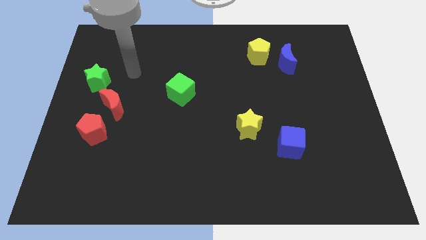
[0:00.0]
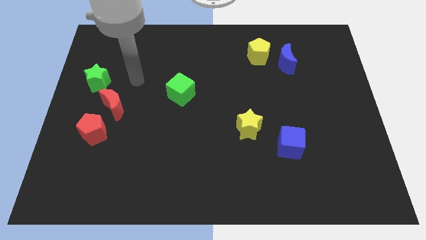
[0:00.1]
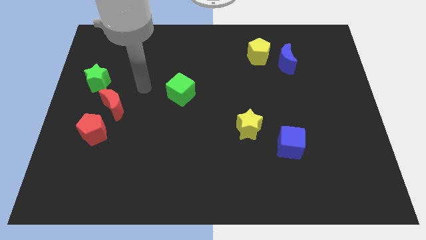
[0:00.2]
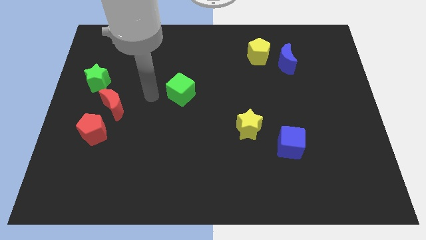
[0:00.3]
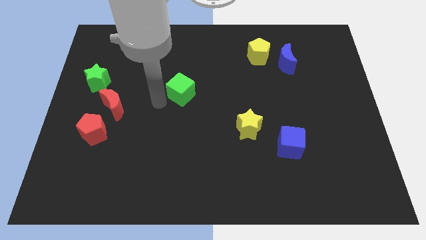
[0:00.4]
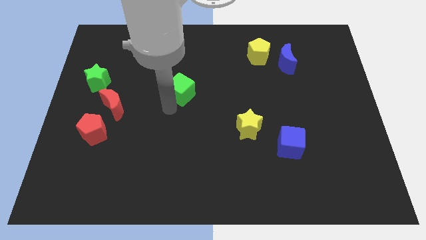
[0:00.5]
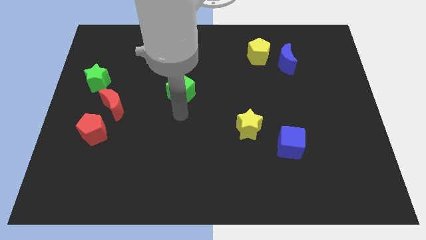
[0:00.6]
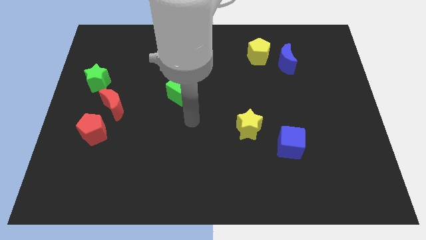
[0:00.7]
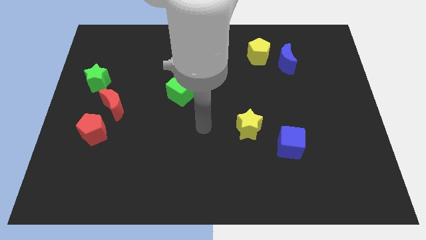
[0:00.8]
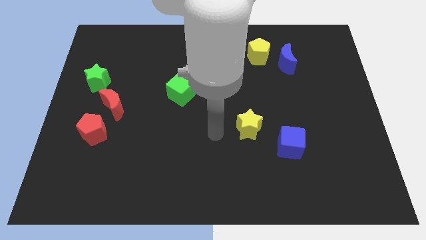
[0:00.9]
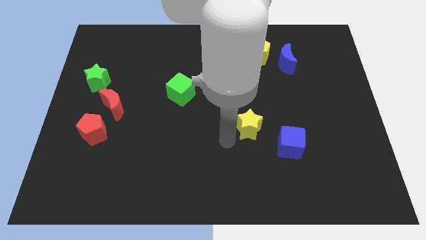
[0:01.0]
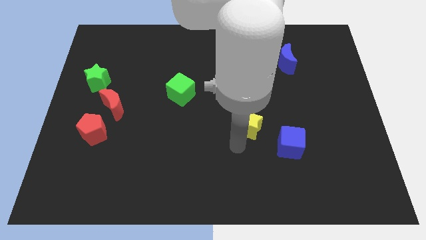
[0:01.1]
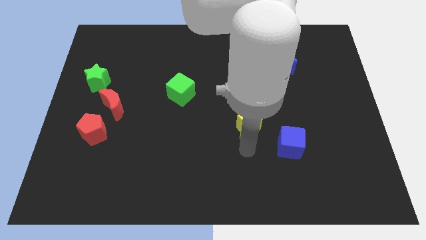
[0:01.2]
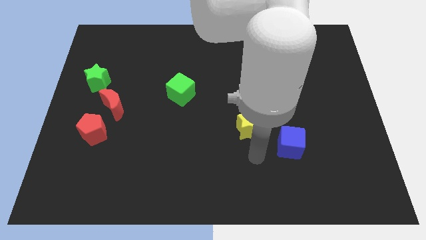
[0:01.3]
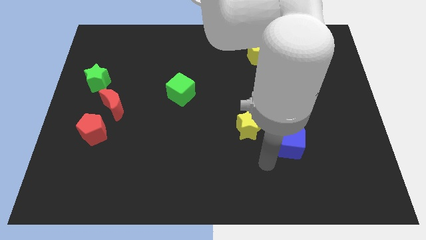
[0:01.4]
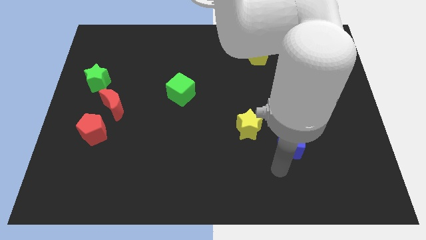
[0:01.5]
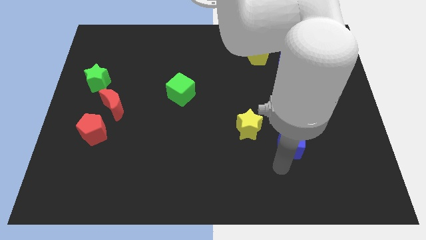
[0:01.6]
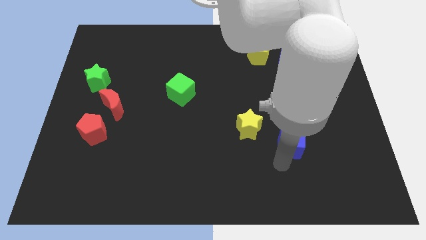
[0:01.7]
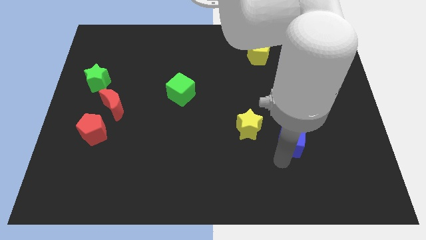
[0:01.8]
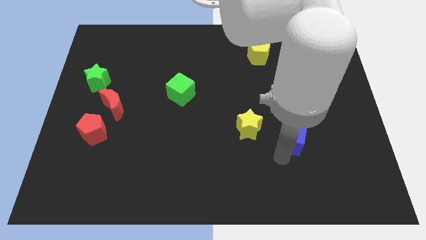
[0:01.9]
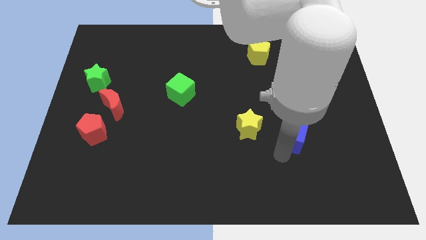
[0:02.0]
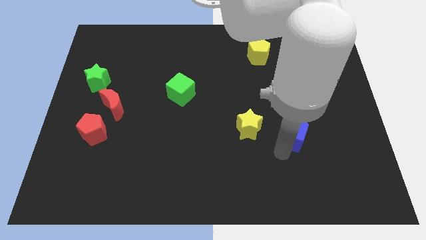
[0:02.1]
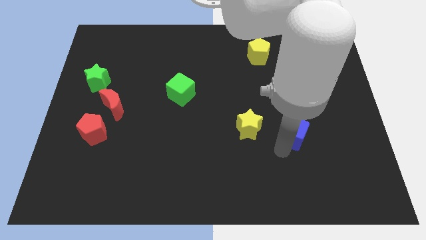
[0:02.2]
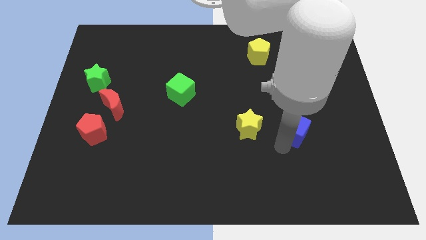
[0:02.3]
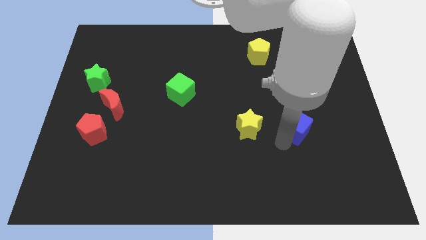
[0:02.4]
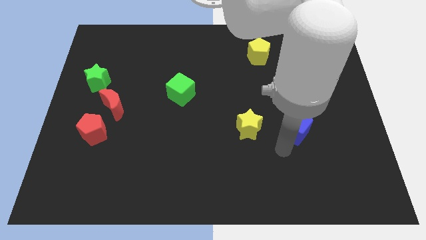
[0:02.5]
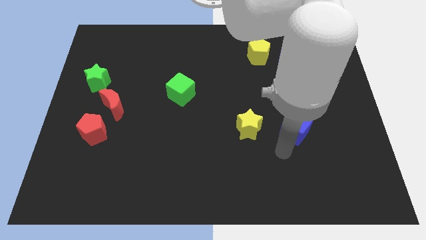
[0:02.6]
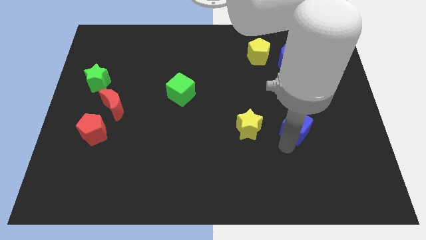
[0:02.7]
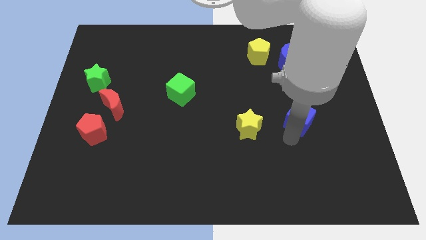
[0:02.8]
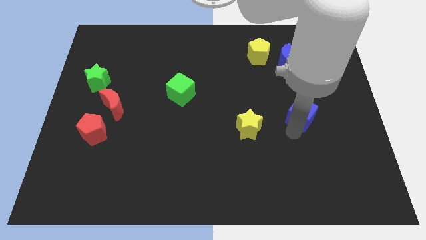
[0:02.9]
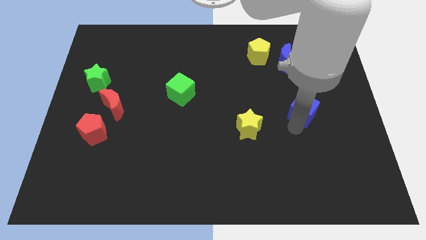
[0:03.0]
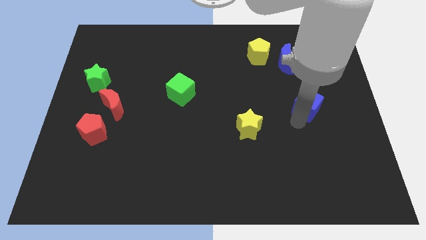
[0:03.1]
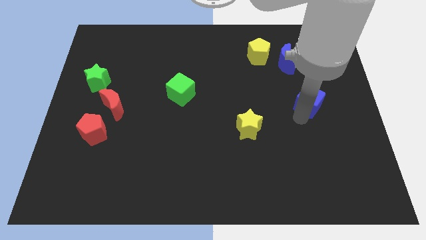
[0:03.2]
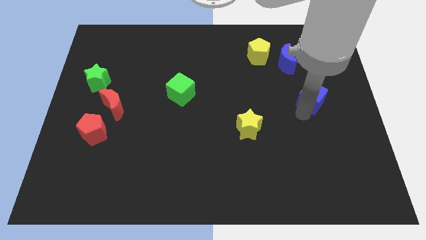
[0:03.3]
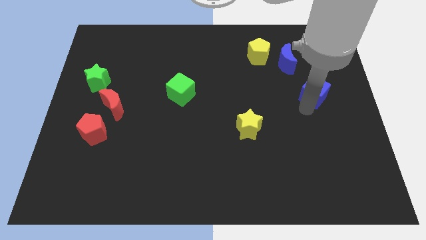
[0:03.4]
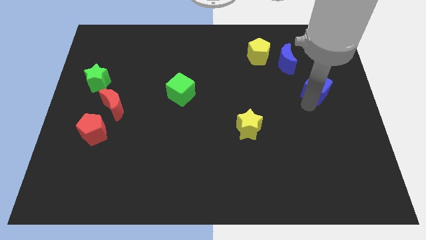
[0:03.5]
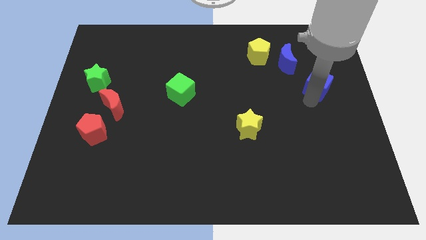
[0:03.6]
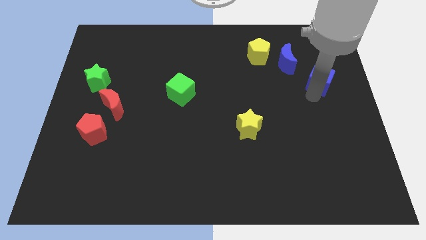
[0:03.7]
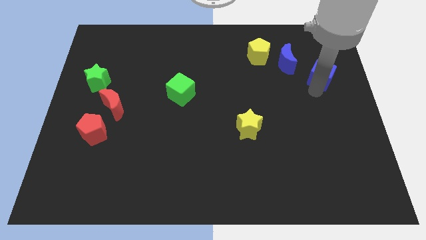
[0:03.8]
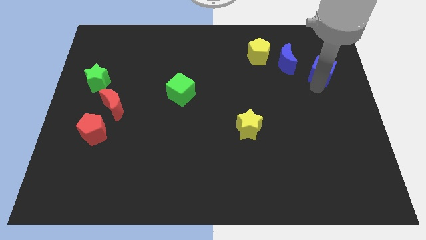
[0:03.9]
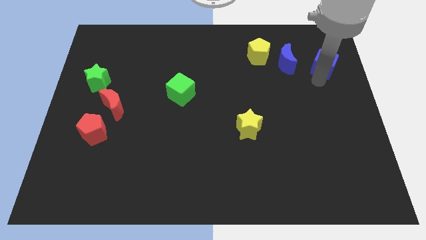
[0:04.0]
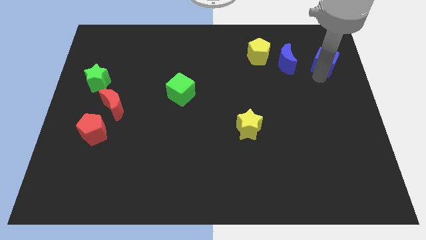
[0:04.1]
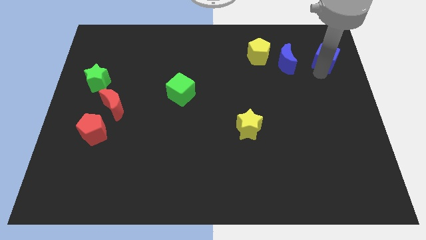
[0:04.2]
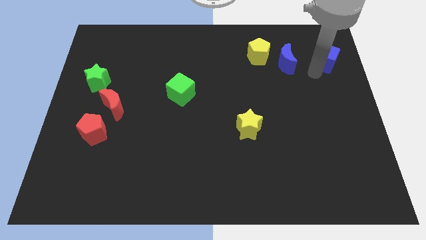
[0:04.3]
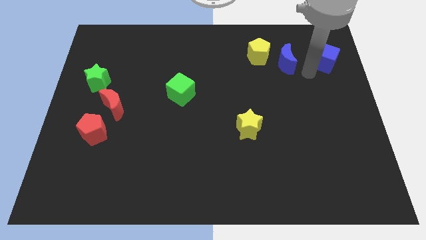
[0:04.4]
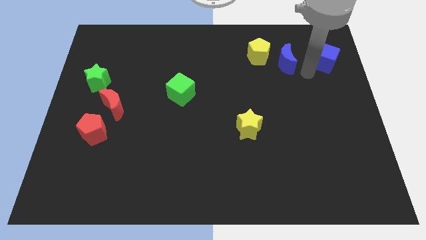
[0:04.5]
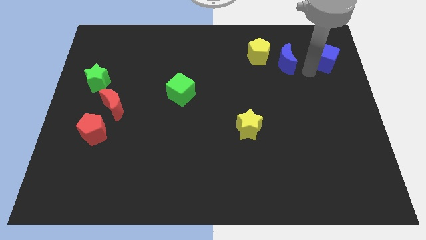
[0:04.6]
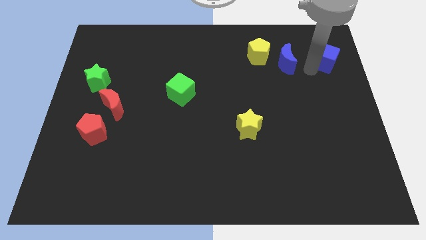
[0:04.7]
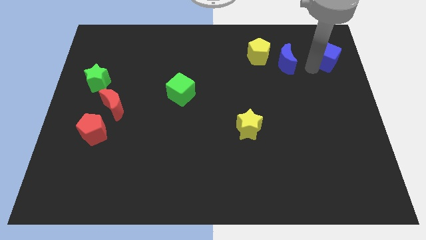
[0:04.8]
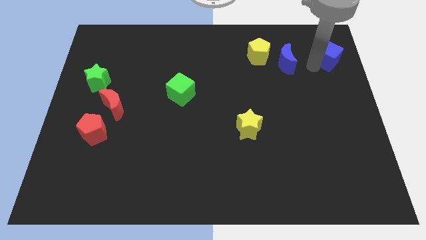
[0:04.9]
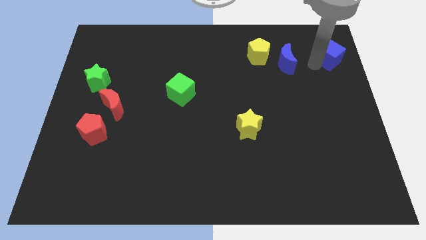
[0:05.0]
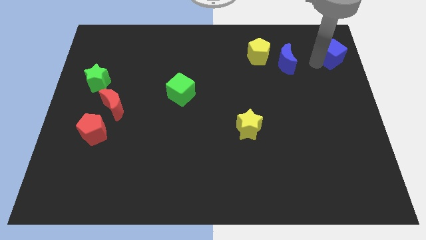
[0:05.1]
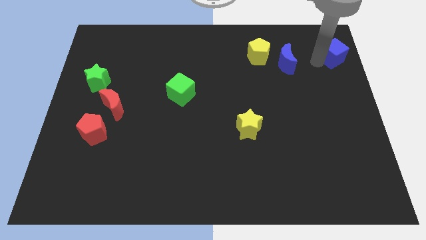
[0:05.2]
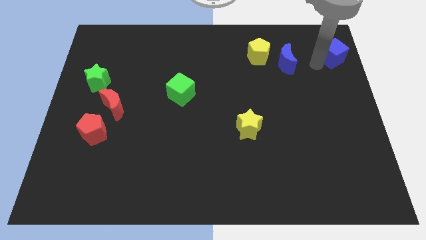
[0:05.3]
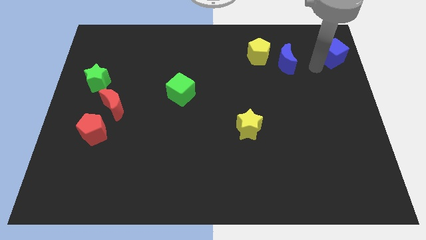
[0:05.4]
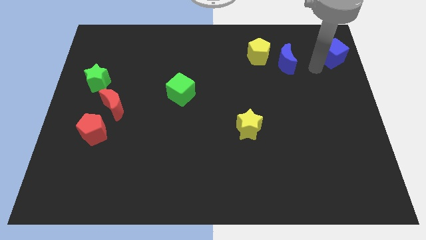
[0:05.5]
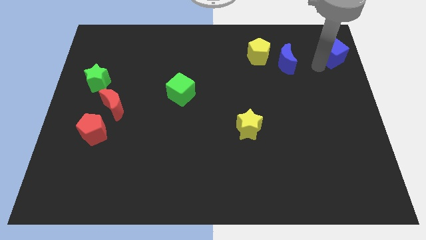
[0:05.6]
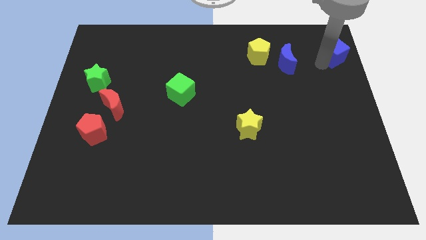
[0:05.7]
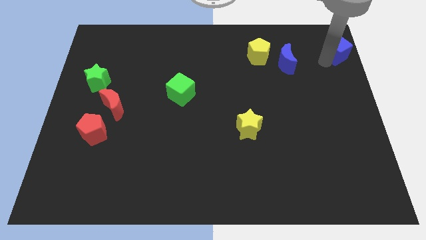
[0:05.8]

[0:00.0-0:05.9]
push the blue cube to the top right

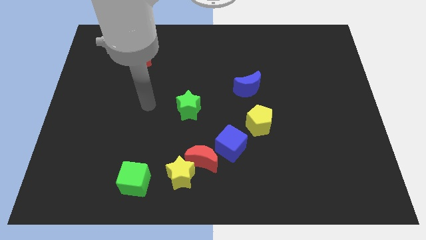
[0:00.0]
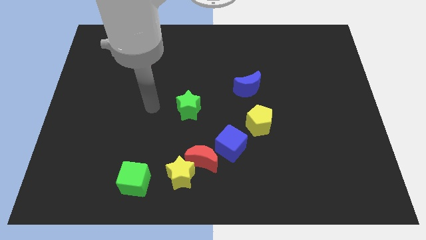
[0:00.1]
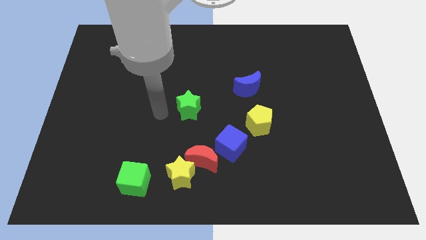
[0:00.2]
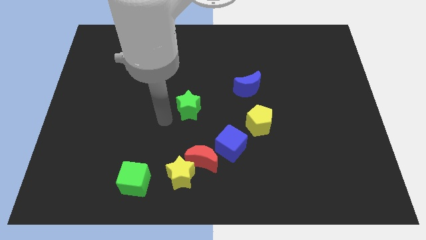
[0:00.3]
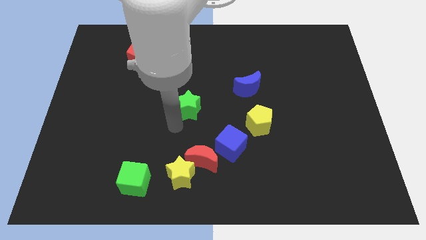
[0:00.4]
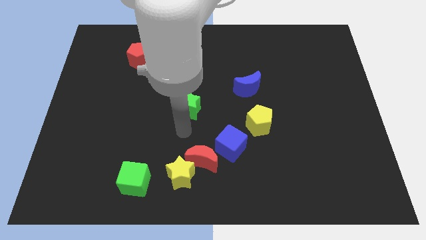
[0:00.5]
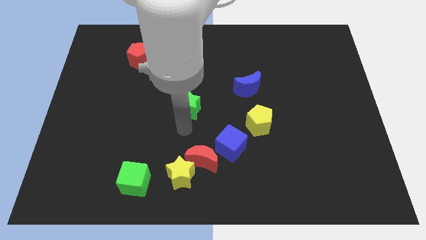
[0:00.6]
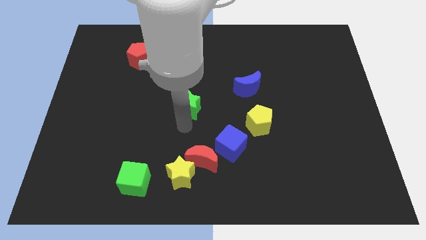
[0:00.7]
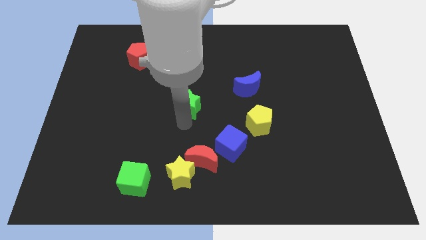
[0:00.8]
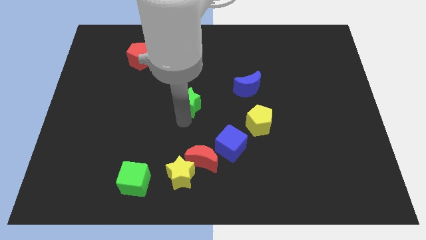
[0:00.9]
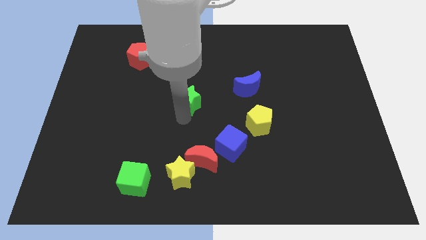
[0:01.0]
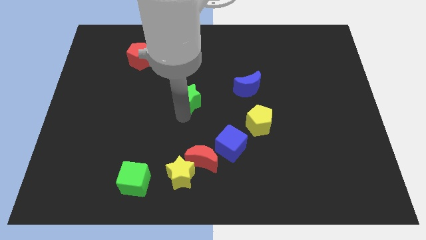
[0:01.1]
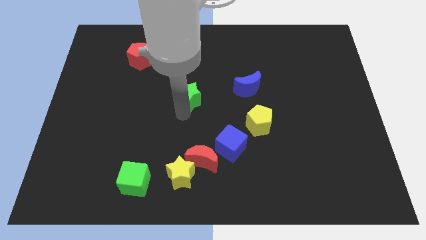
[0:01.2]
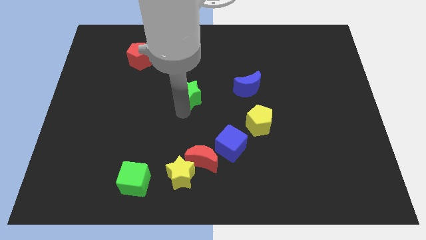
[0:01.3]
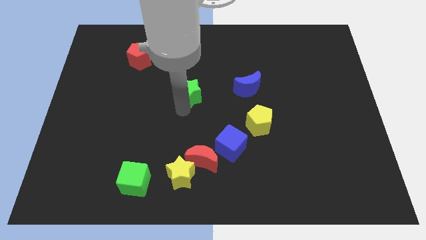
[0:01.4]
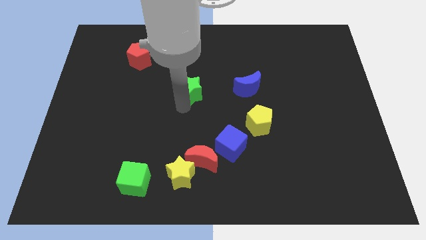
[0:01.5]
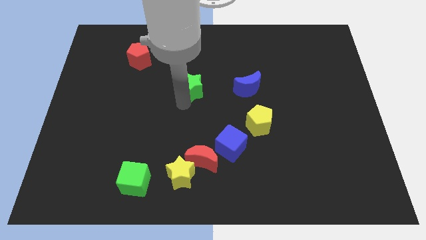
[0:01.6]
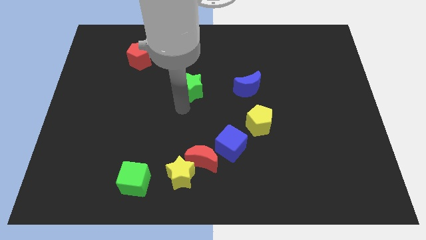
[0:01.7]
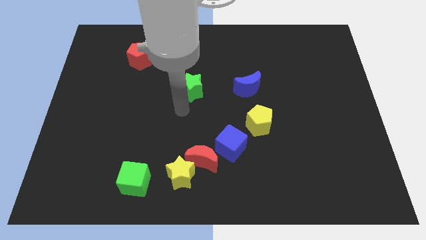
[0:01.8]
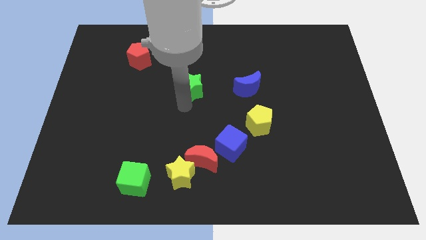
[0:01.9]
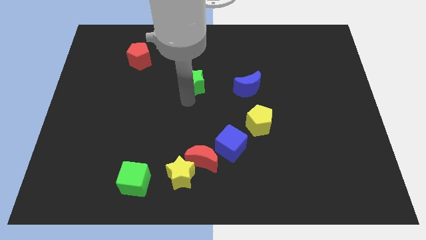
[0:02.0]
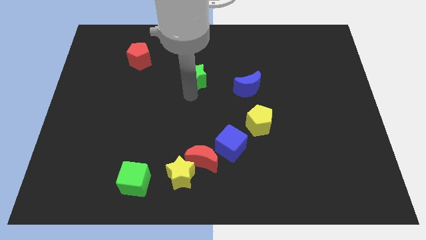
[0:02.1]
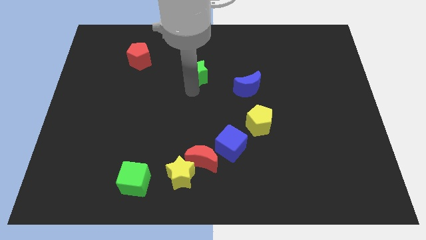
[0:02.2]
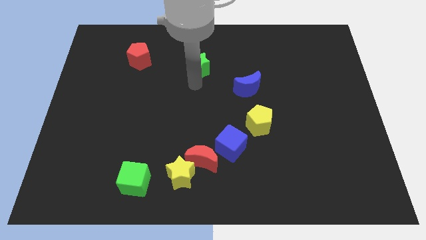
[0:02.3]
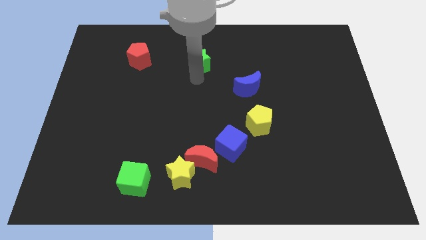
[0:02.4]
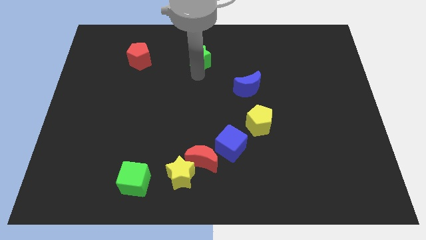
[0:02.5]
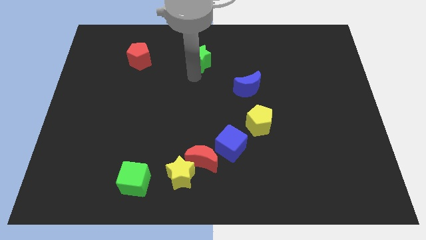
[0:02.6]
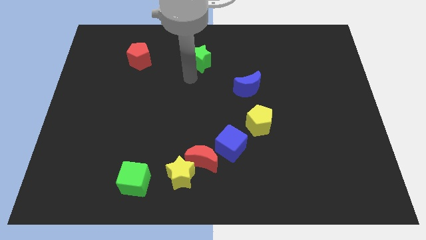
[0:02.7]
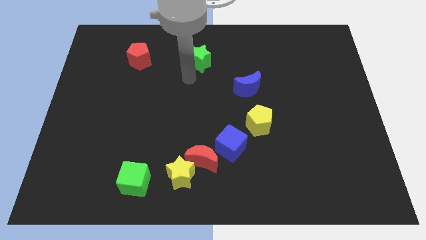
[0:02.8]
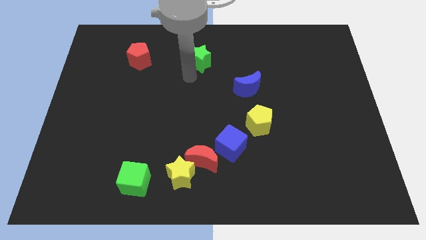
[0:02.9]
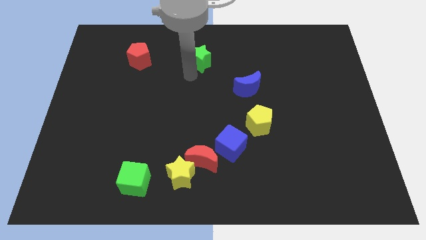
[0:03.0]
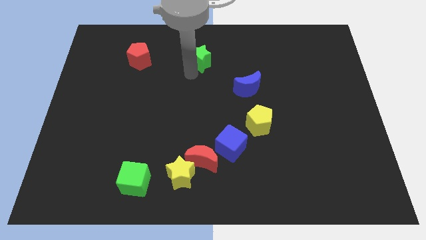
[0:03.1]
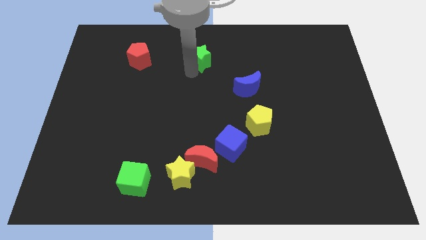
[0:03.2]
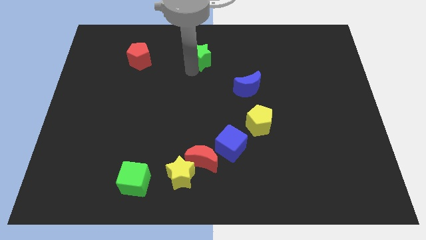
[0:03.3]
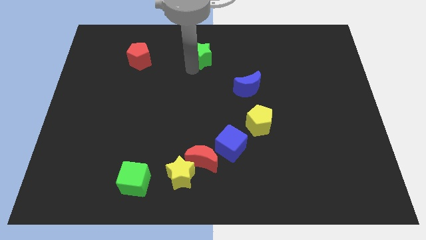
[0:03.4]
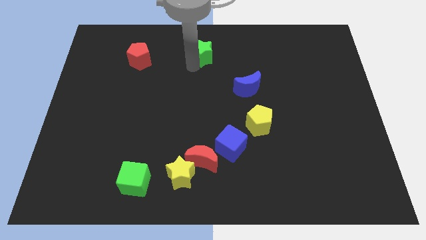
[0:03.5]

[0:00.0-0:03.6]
move the green star to the towards your base
